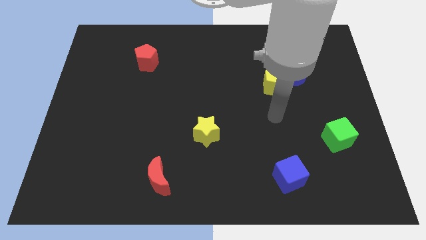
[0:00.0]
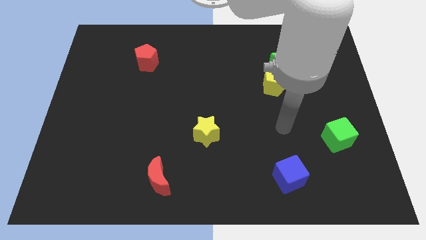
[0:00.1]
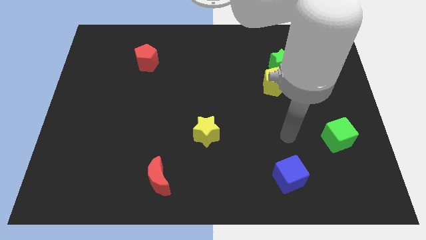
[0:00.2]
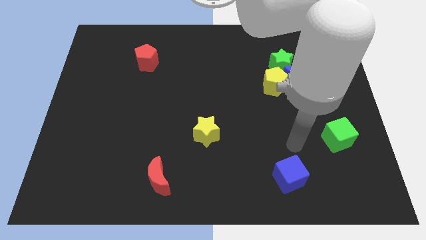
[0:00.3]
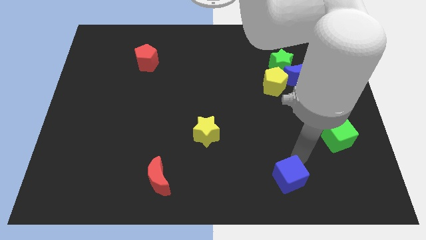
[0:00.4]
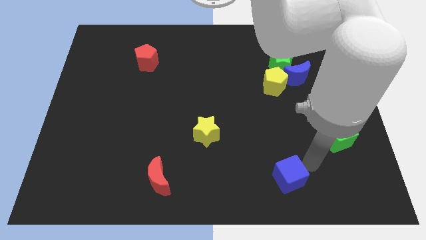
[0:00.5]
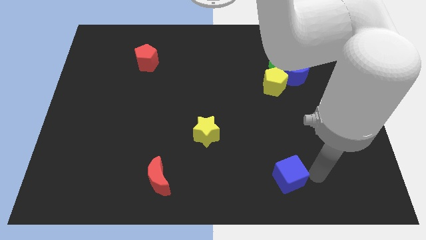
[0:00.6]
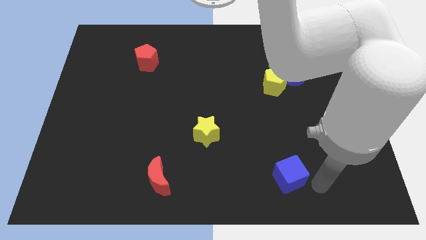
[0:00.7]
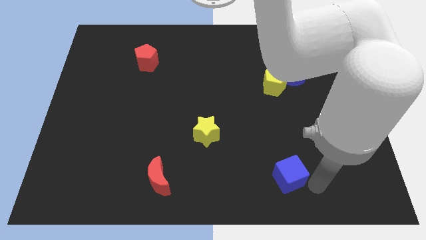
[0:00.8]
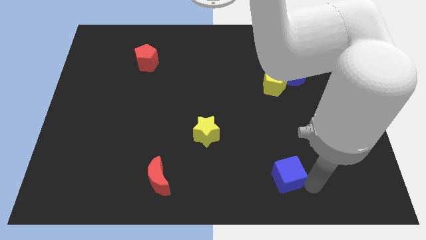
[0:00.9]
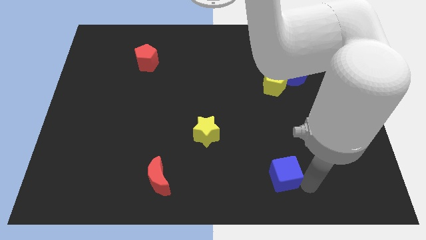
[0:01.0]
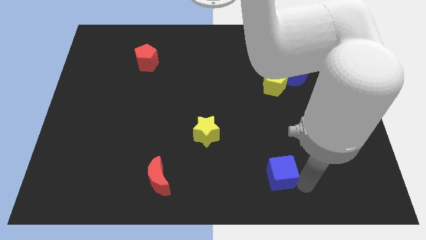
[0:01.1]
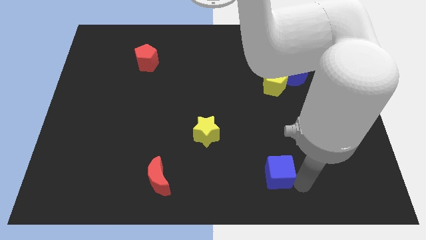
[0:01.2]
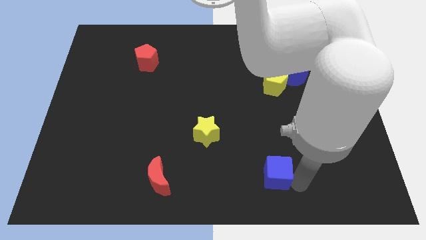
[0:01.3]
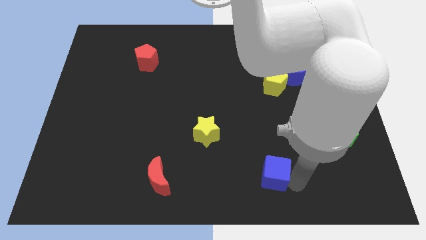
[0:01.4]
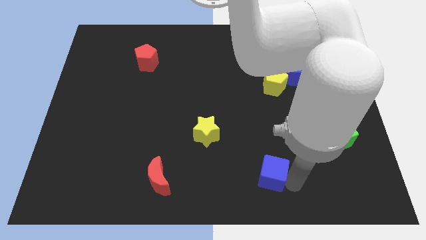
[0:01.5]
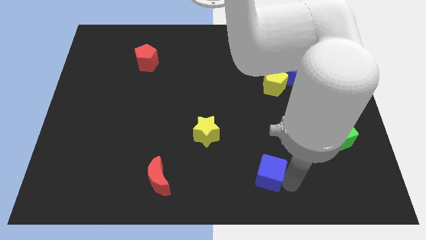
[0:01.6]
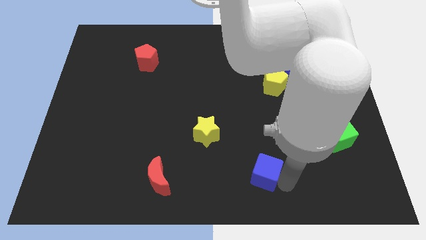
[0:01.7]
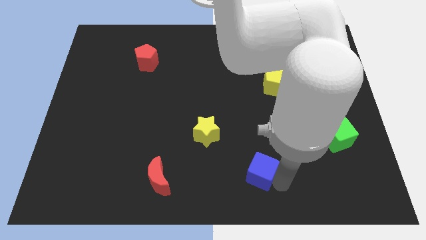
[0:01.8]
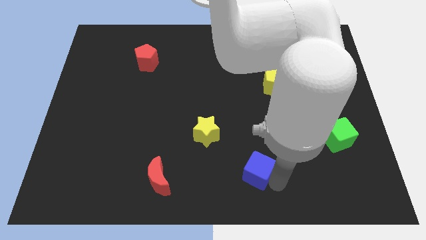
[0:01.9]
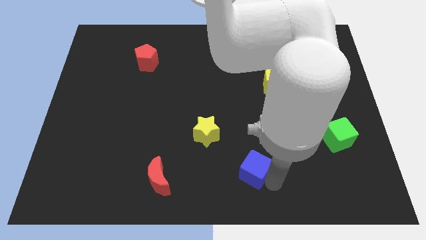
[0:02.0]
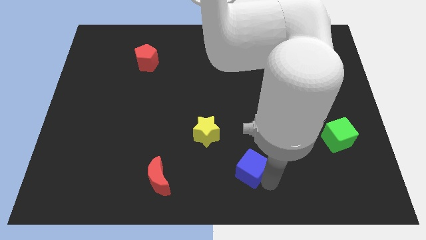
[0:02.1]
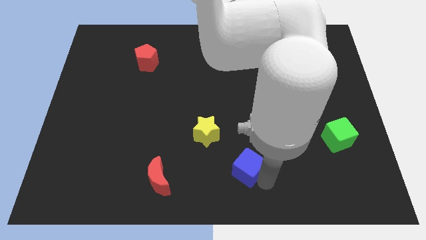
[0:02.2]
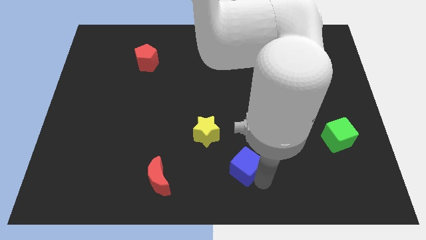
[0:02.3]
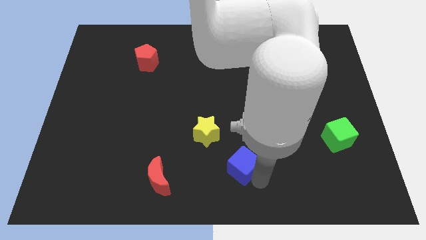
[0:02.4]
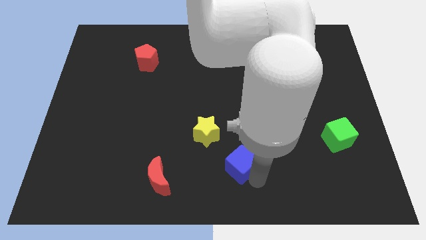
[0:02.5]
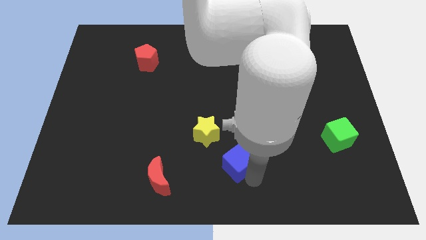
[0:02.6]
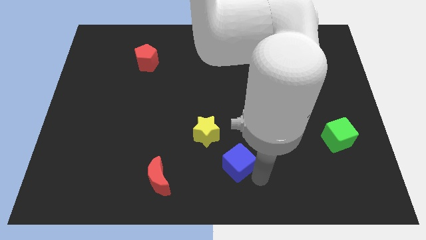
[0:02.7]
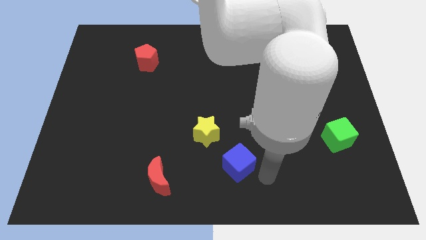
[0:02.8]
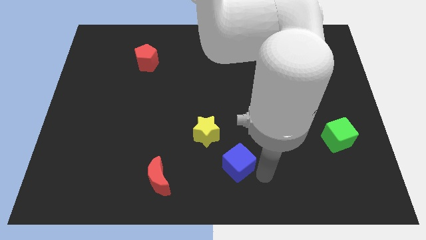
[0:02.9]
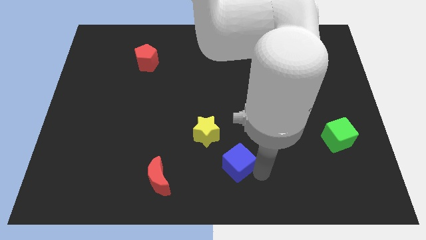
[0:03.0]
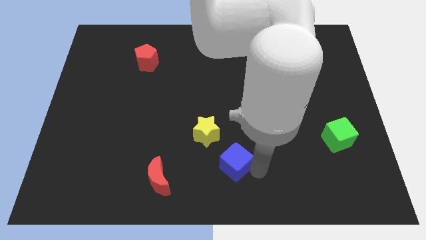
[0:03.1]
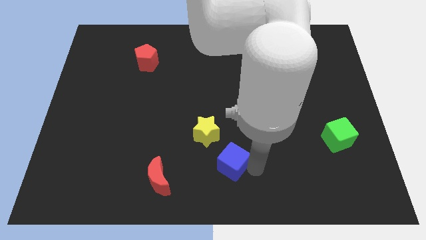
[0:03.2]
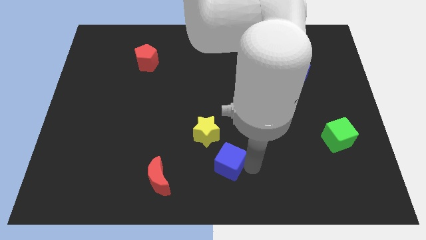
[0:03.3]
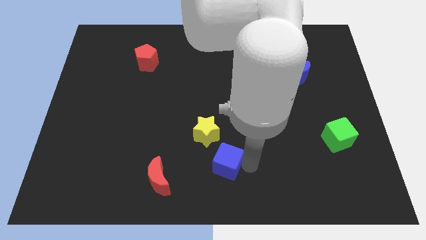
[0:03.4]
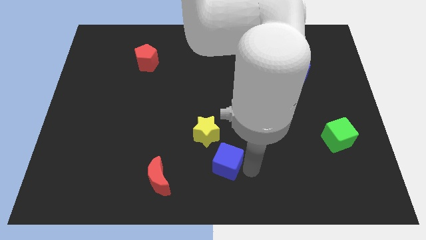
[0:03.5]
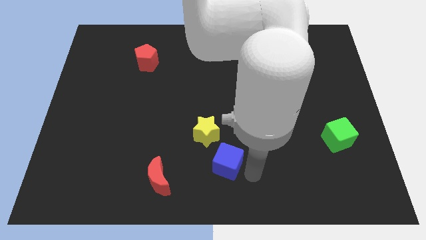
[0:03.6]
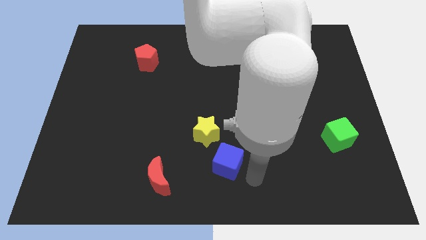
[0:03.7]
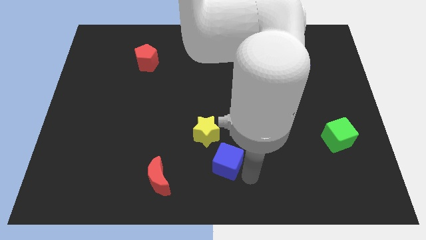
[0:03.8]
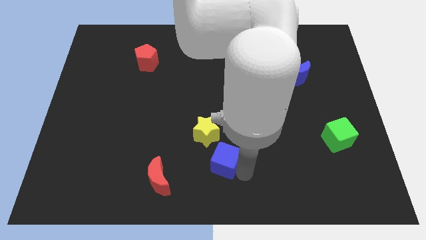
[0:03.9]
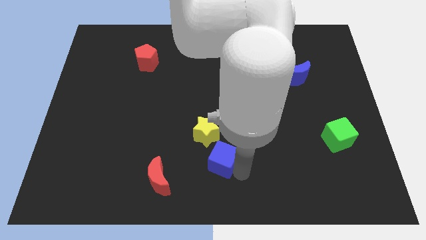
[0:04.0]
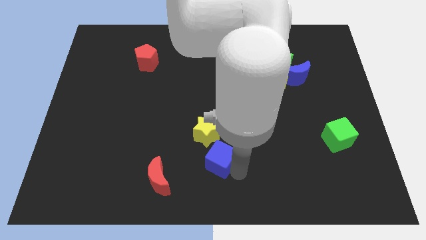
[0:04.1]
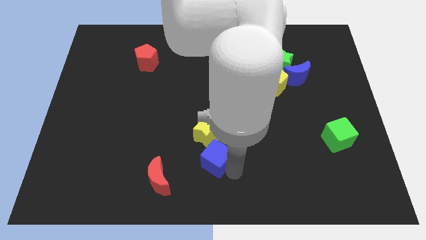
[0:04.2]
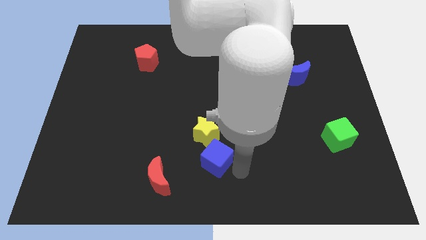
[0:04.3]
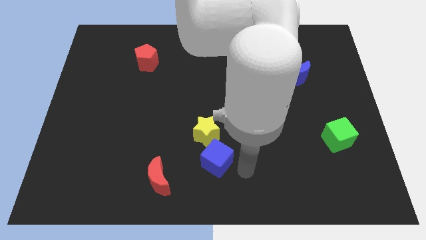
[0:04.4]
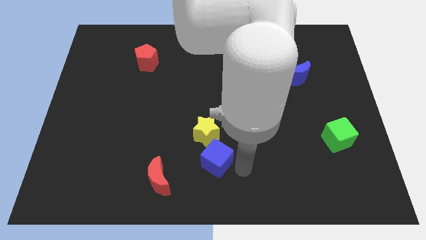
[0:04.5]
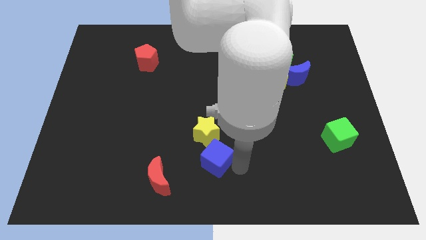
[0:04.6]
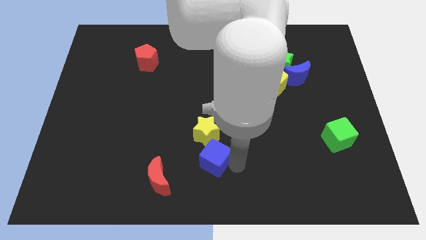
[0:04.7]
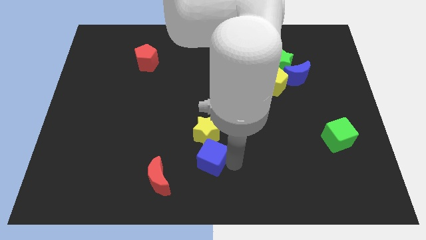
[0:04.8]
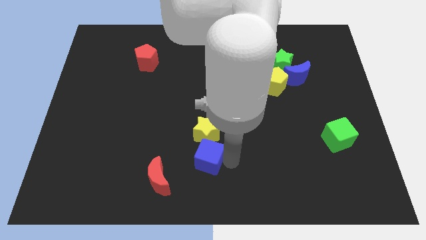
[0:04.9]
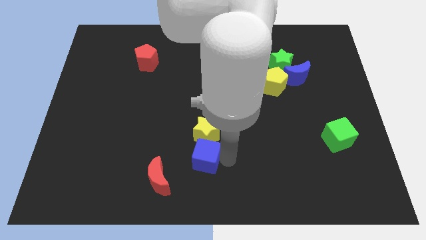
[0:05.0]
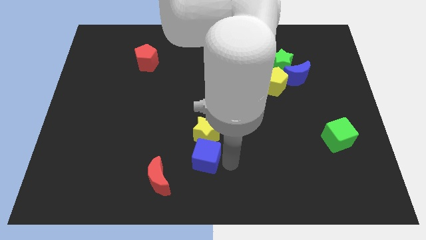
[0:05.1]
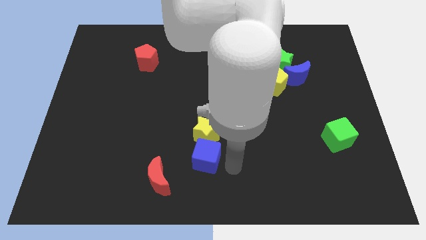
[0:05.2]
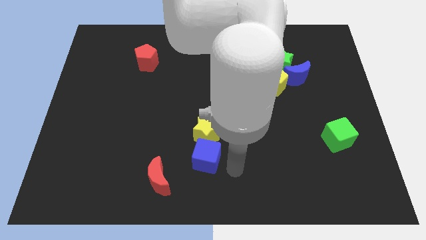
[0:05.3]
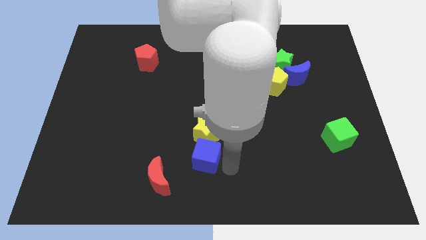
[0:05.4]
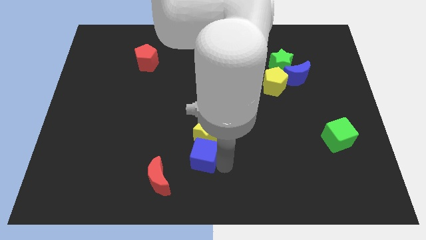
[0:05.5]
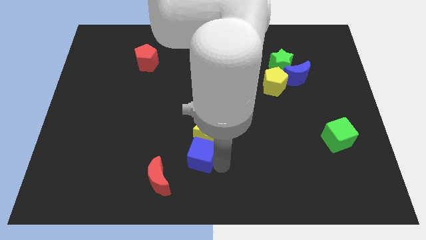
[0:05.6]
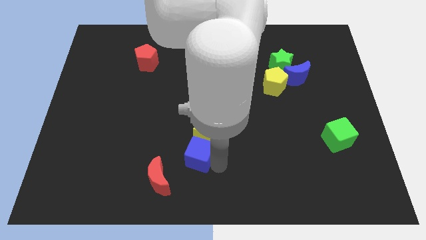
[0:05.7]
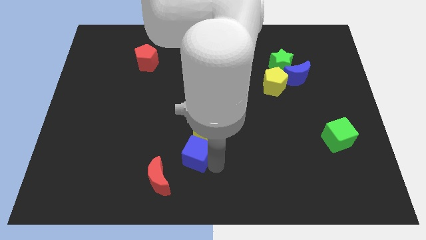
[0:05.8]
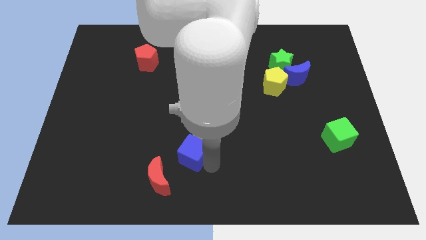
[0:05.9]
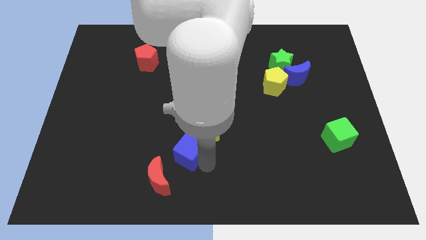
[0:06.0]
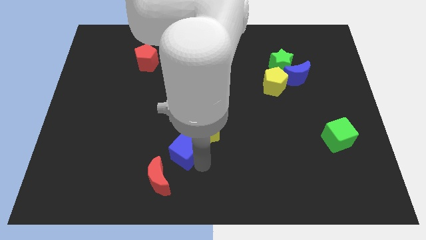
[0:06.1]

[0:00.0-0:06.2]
put the blue cube left of the yellow star
